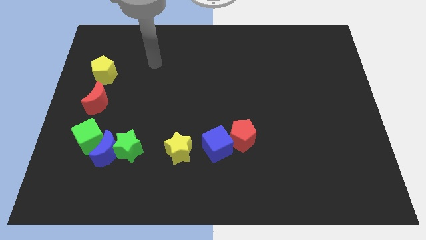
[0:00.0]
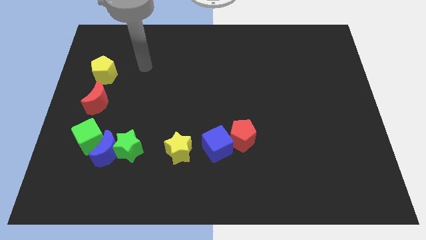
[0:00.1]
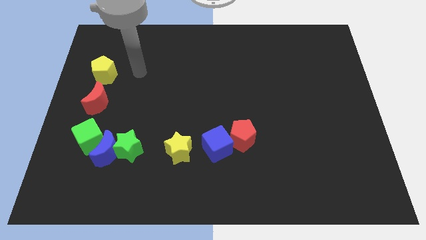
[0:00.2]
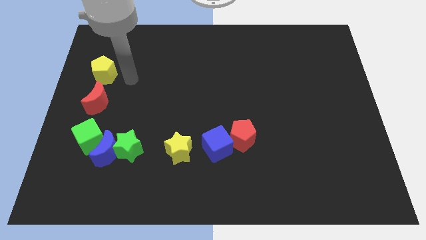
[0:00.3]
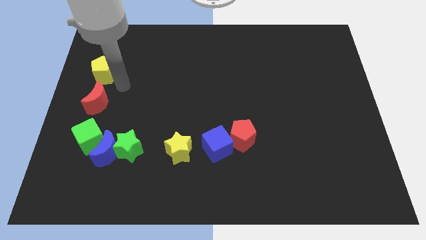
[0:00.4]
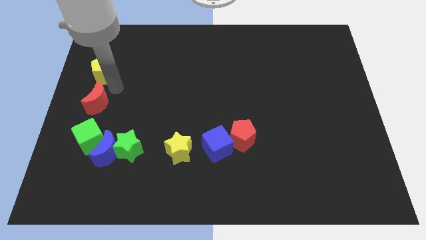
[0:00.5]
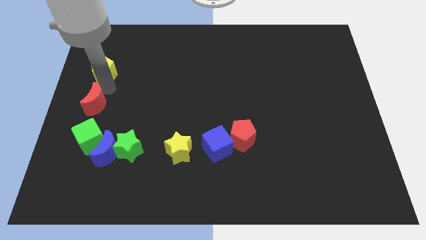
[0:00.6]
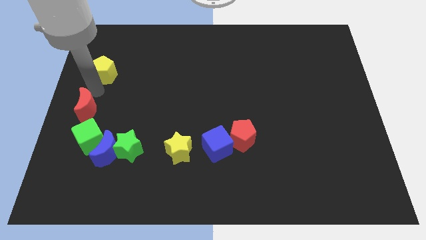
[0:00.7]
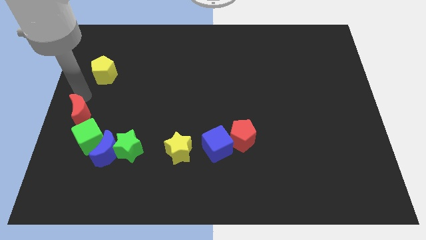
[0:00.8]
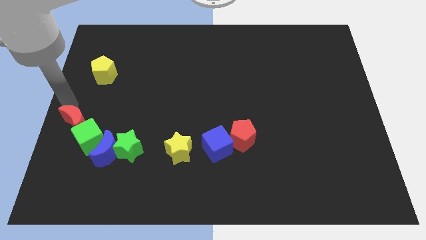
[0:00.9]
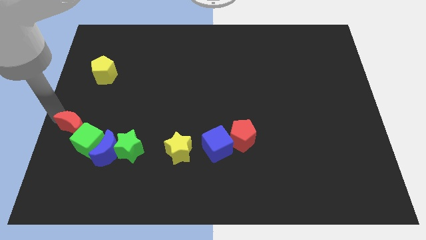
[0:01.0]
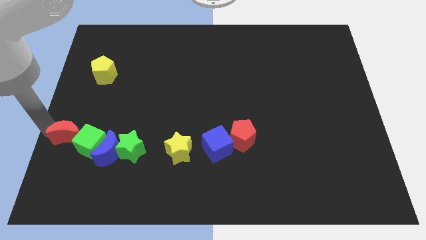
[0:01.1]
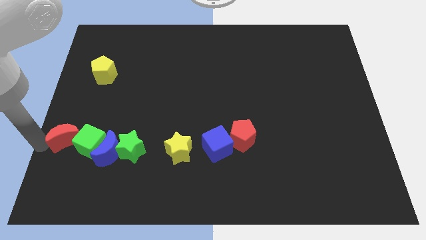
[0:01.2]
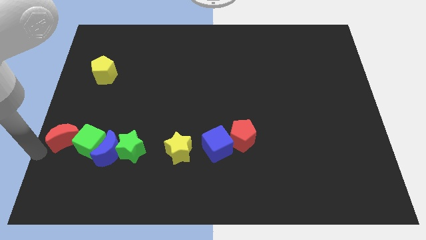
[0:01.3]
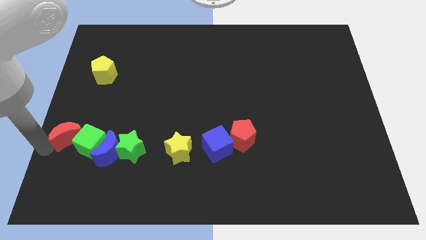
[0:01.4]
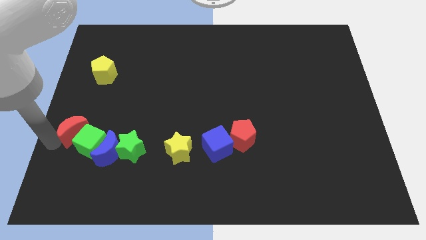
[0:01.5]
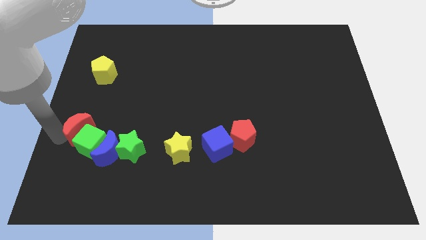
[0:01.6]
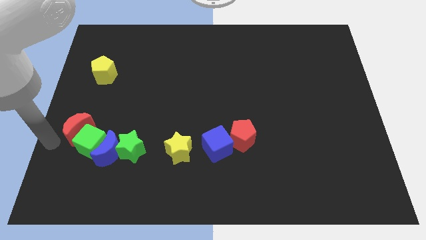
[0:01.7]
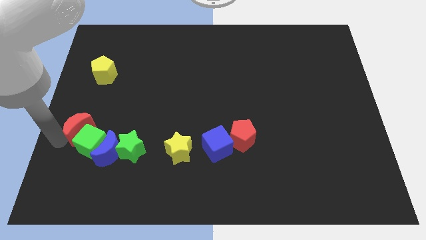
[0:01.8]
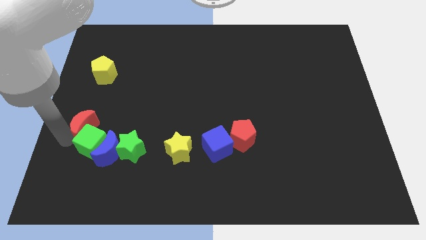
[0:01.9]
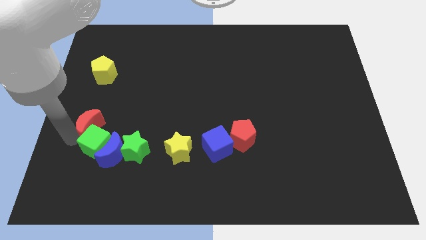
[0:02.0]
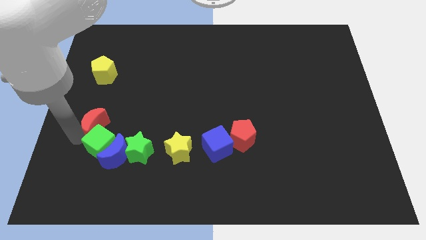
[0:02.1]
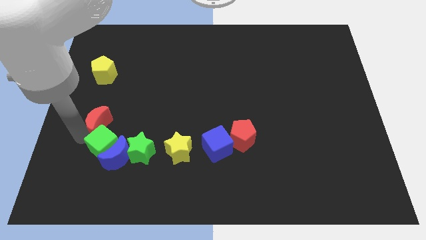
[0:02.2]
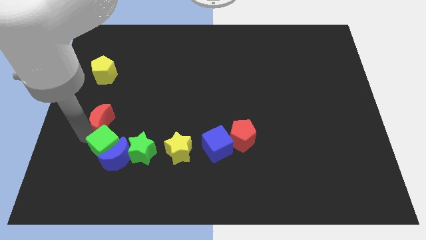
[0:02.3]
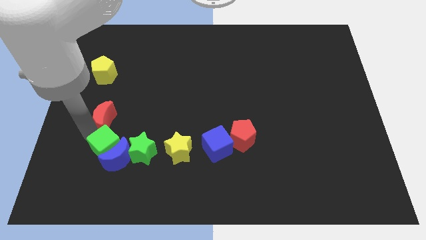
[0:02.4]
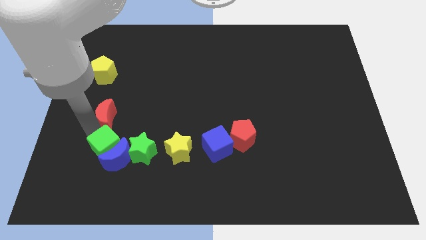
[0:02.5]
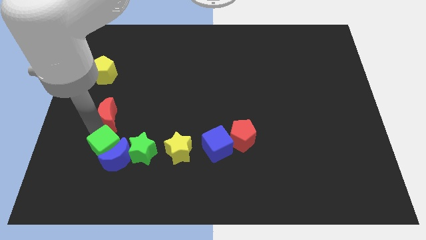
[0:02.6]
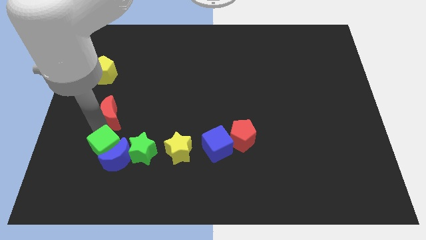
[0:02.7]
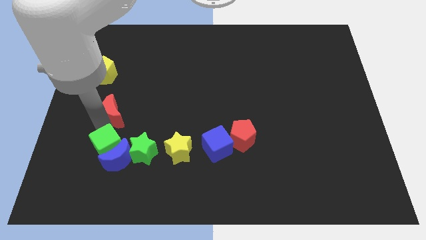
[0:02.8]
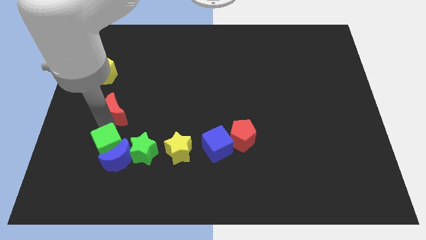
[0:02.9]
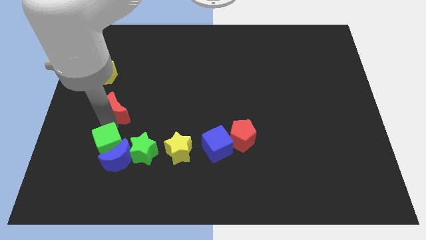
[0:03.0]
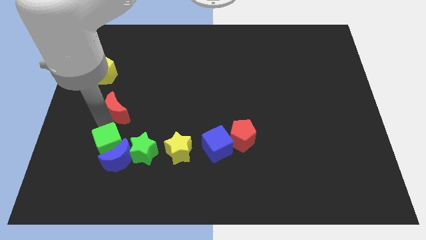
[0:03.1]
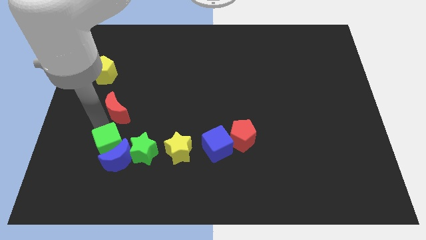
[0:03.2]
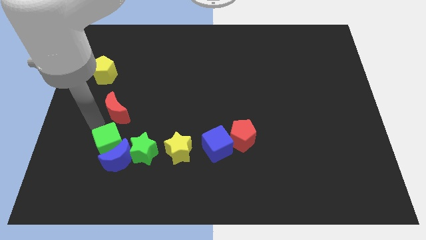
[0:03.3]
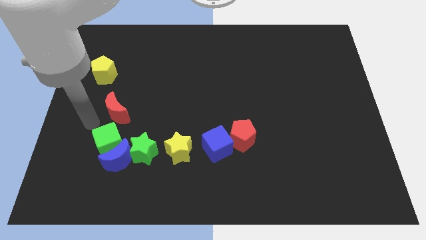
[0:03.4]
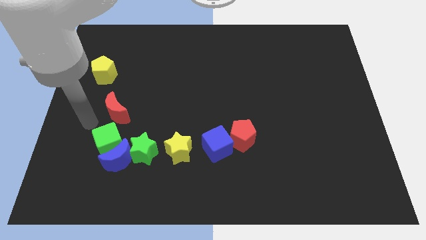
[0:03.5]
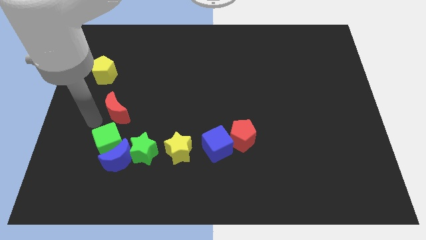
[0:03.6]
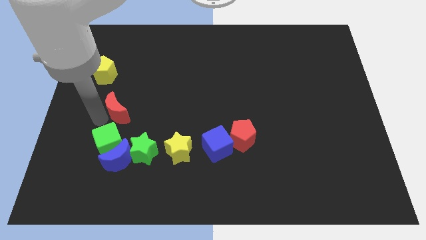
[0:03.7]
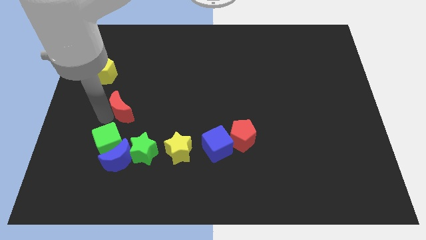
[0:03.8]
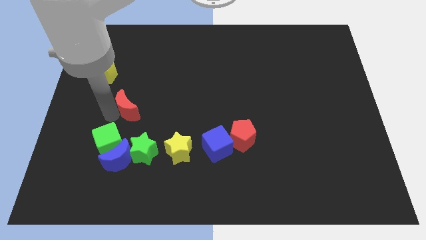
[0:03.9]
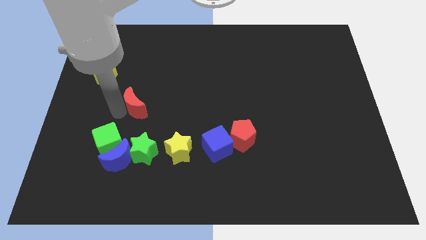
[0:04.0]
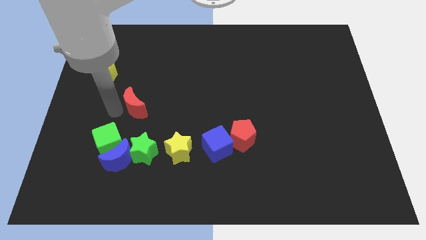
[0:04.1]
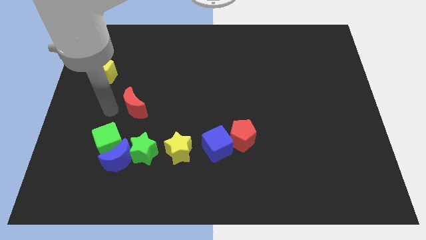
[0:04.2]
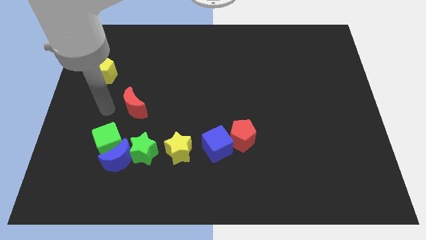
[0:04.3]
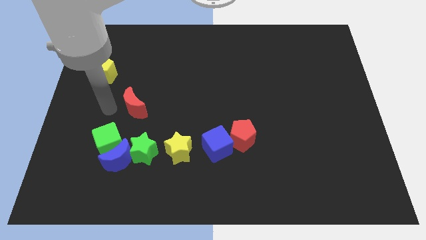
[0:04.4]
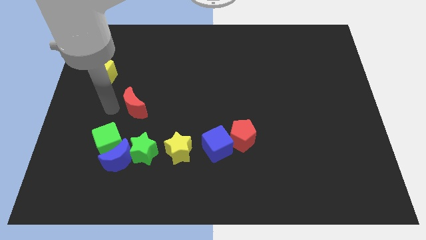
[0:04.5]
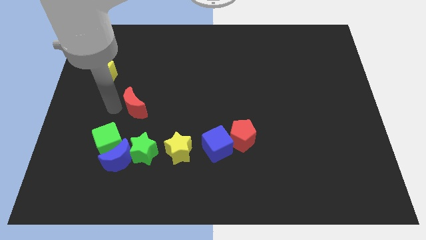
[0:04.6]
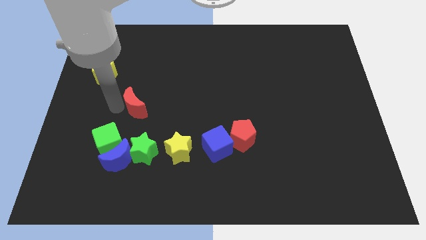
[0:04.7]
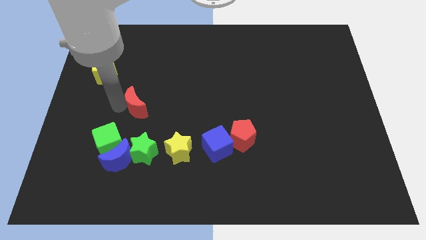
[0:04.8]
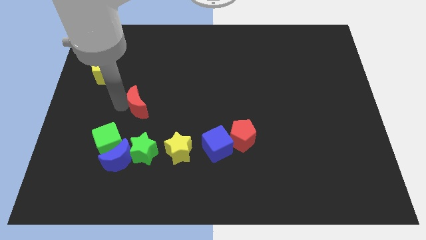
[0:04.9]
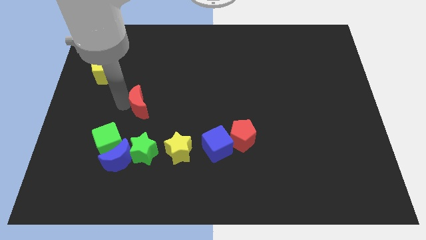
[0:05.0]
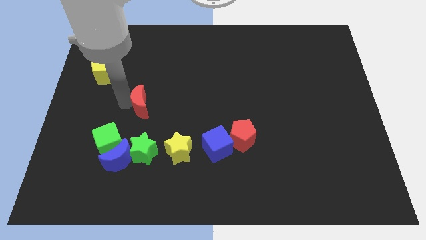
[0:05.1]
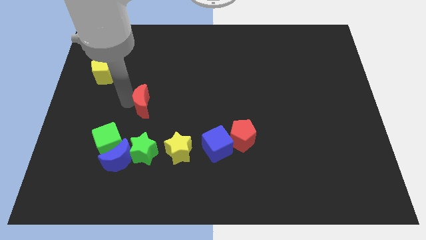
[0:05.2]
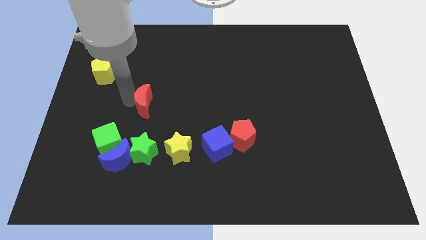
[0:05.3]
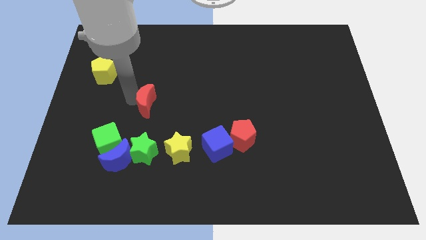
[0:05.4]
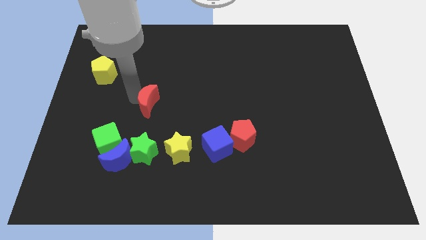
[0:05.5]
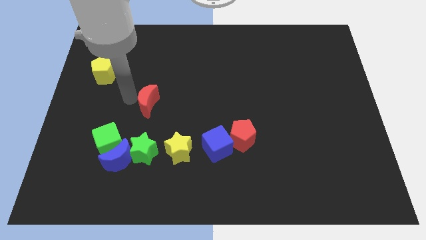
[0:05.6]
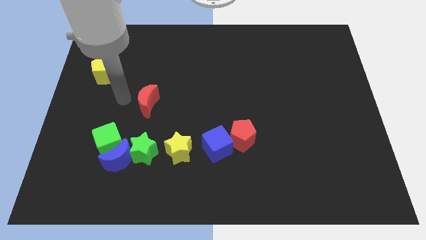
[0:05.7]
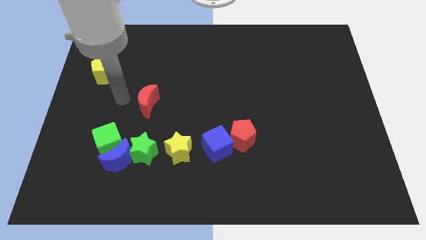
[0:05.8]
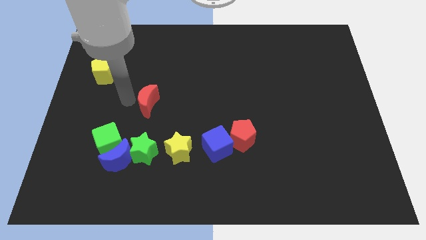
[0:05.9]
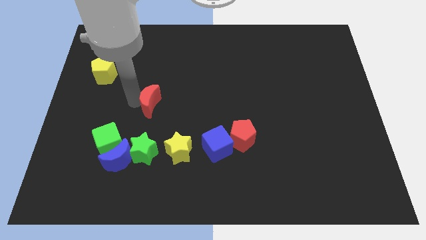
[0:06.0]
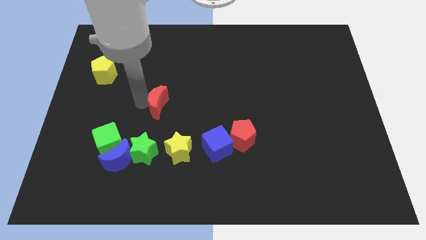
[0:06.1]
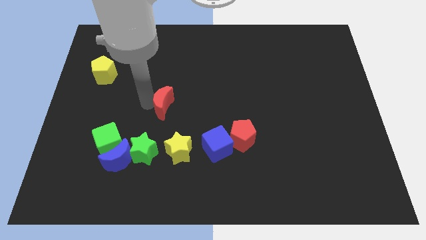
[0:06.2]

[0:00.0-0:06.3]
put the red moon to the center of the board
